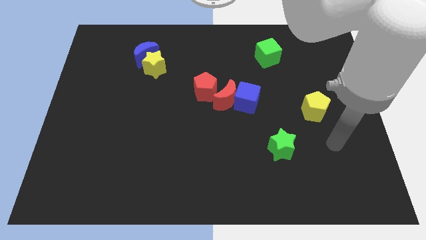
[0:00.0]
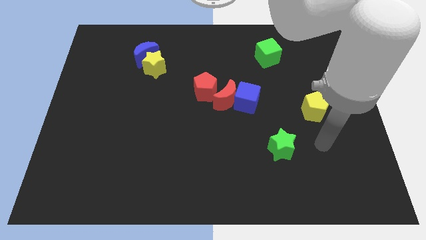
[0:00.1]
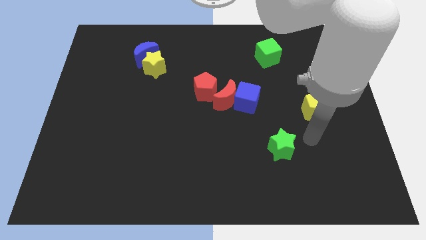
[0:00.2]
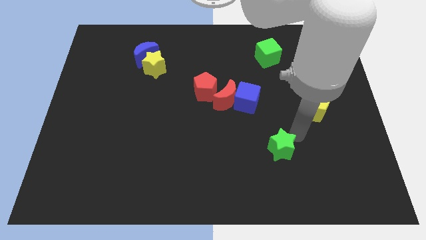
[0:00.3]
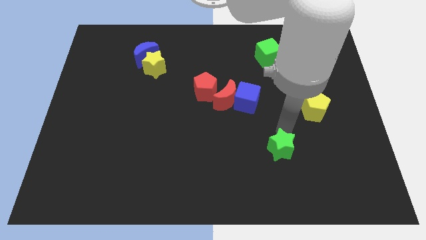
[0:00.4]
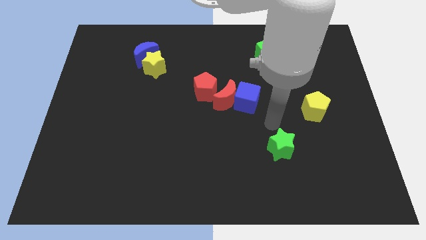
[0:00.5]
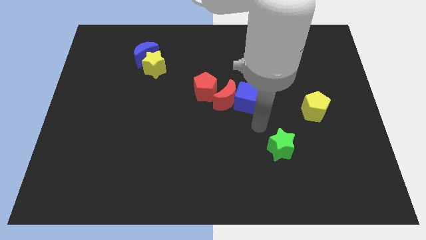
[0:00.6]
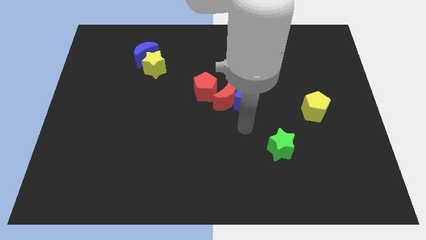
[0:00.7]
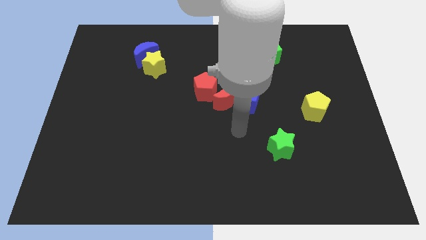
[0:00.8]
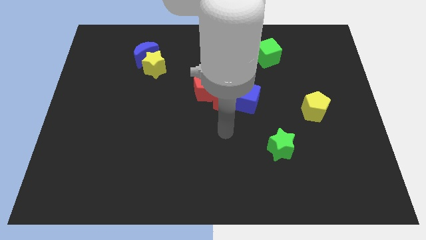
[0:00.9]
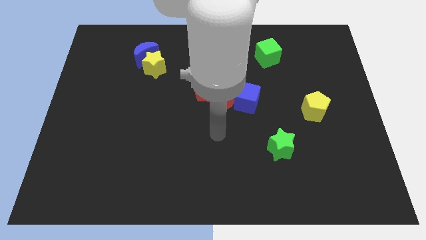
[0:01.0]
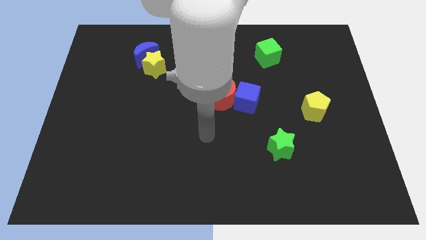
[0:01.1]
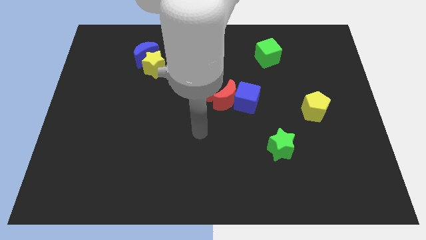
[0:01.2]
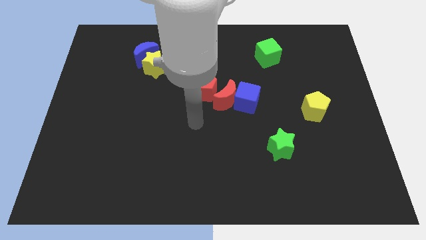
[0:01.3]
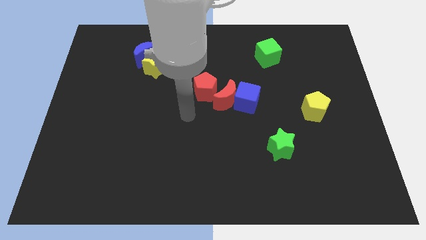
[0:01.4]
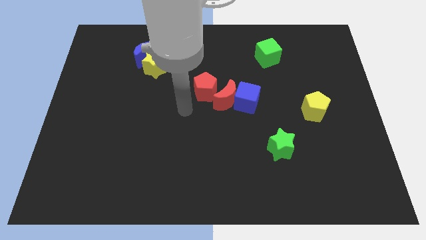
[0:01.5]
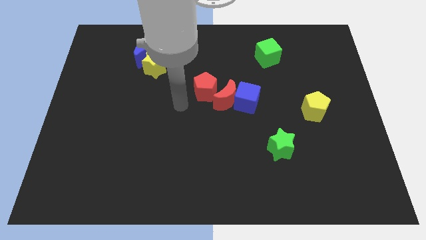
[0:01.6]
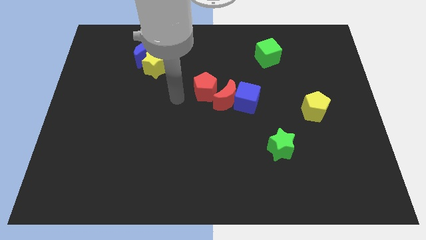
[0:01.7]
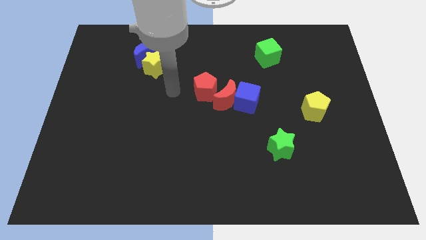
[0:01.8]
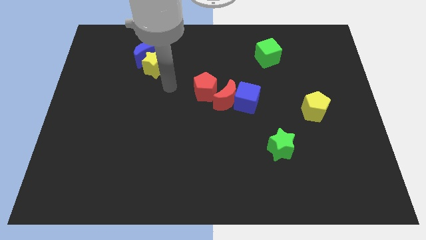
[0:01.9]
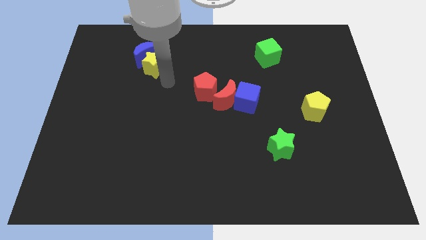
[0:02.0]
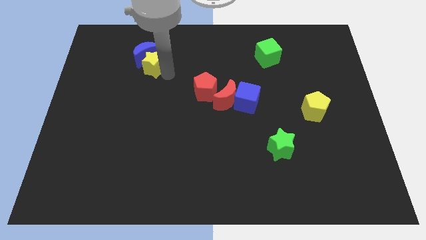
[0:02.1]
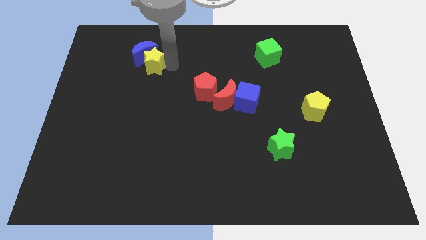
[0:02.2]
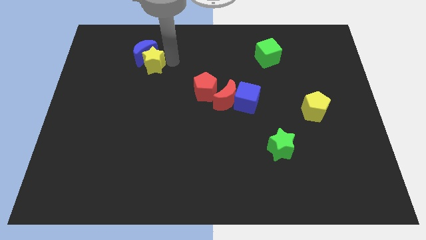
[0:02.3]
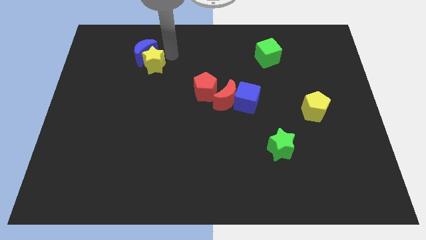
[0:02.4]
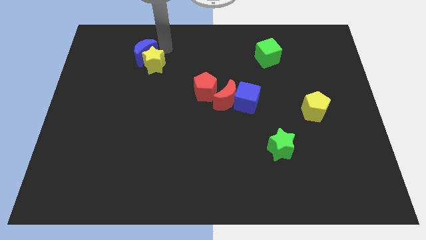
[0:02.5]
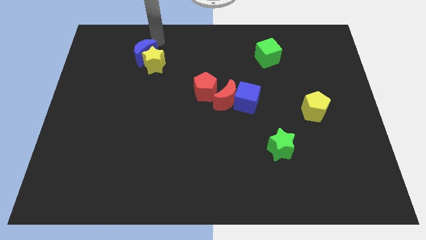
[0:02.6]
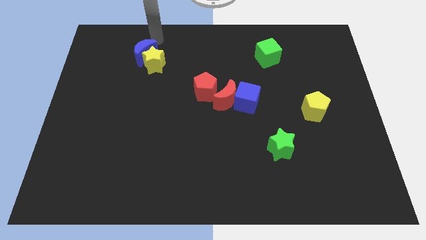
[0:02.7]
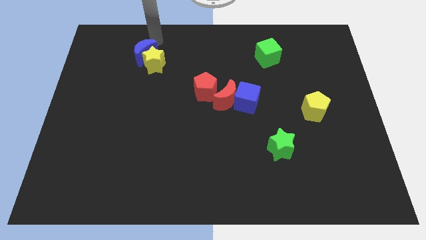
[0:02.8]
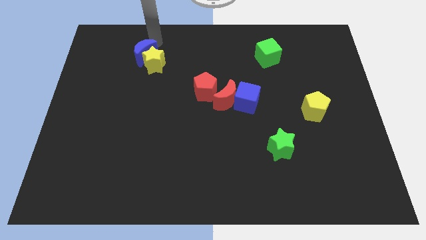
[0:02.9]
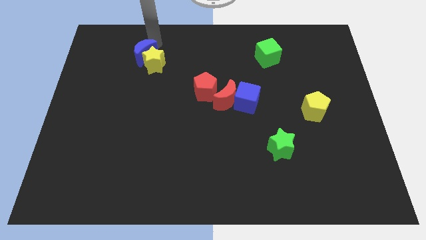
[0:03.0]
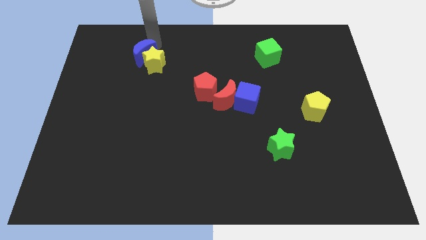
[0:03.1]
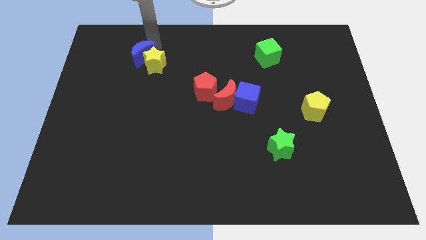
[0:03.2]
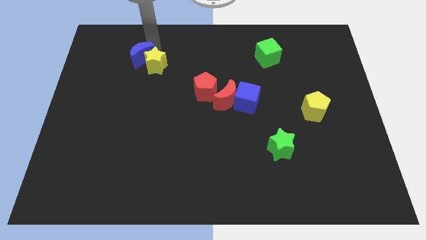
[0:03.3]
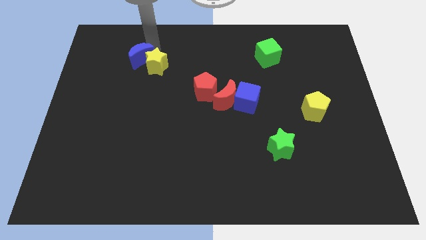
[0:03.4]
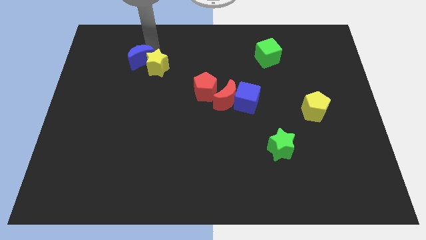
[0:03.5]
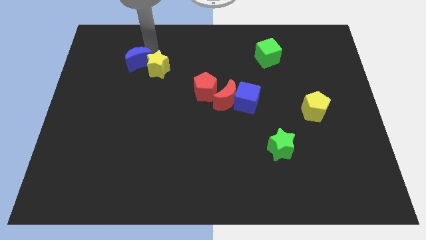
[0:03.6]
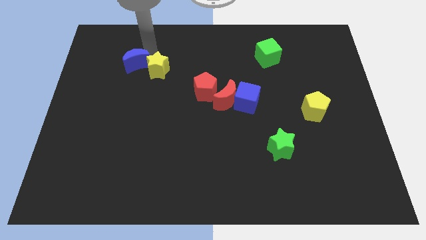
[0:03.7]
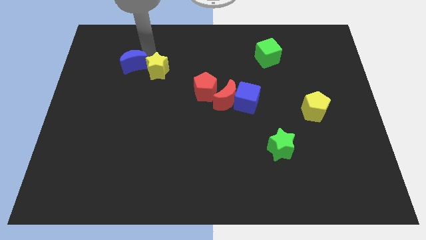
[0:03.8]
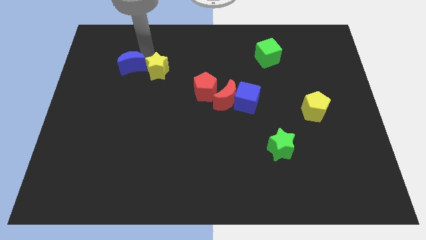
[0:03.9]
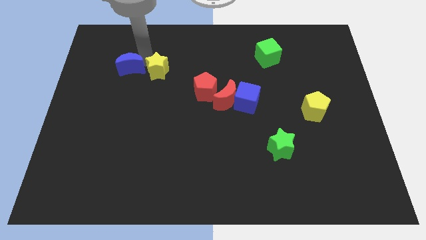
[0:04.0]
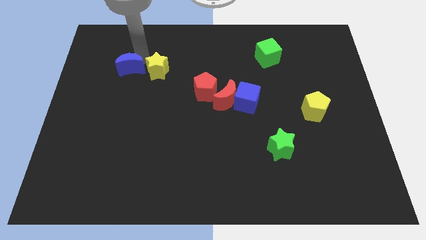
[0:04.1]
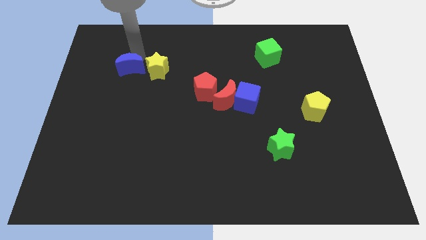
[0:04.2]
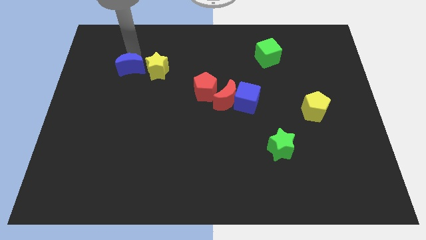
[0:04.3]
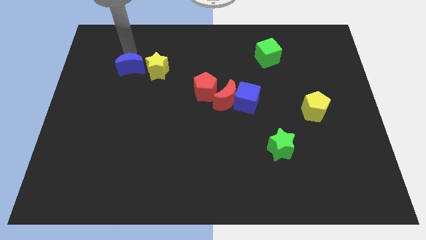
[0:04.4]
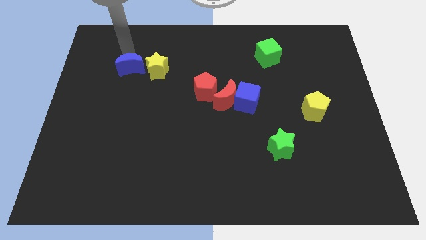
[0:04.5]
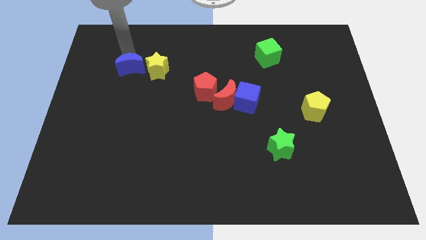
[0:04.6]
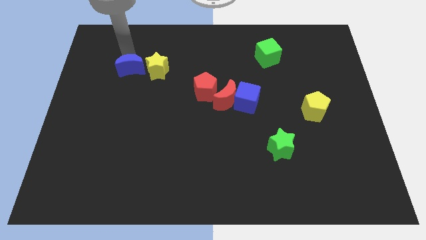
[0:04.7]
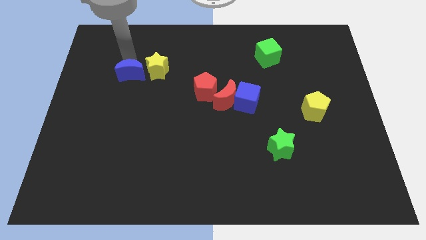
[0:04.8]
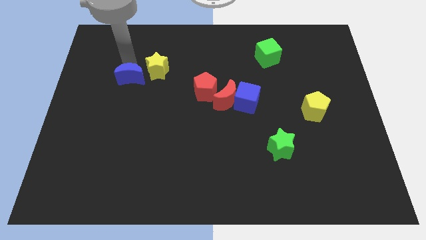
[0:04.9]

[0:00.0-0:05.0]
move the blue moon a little downwards

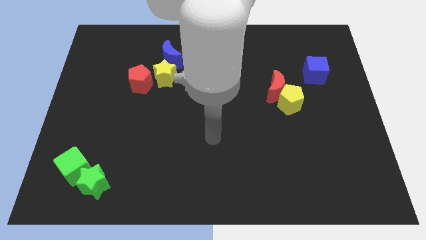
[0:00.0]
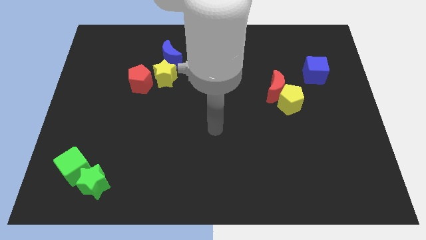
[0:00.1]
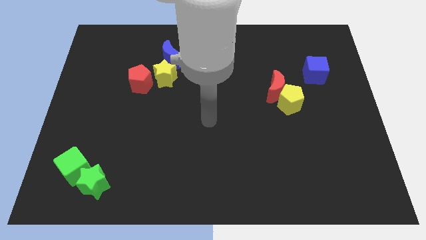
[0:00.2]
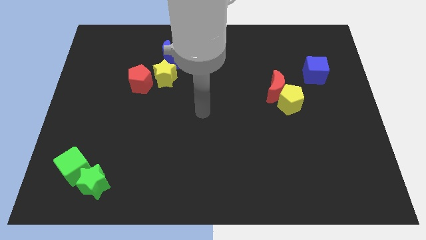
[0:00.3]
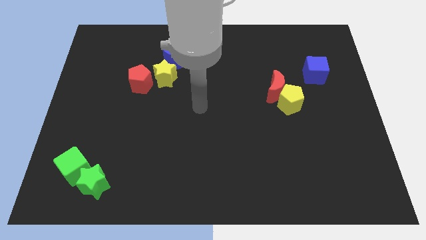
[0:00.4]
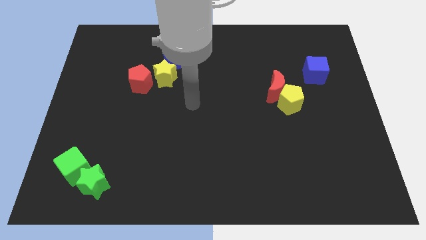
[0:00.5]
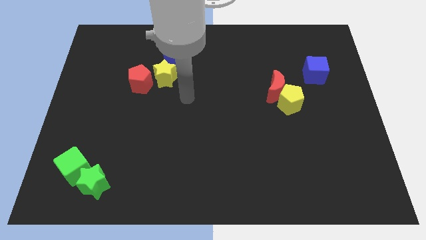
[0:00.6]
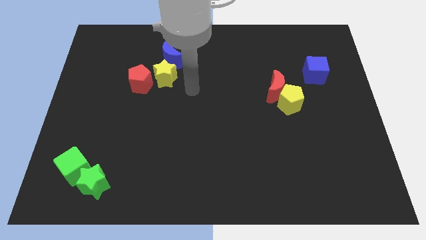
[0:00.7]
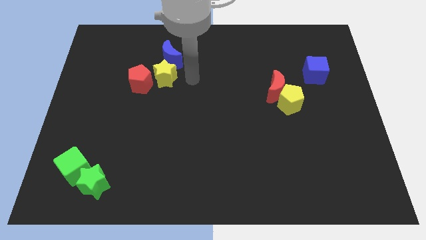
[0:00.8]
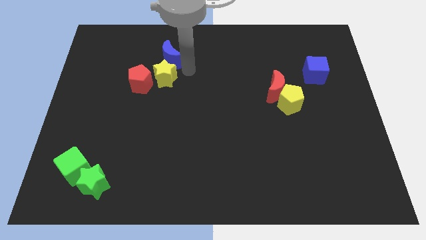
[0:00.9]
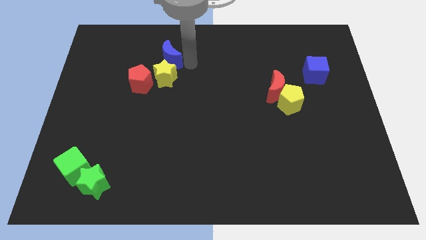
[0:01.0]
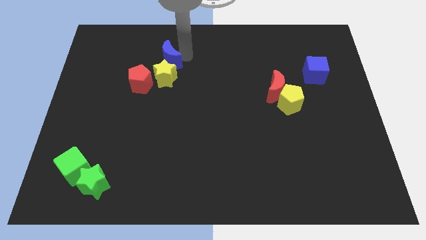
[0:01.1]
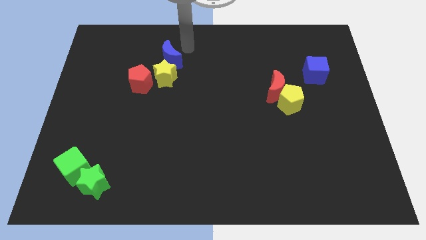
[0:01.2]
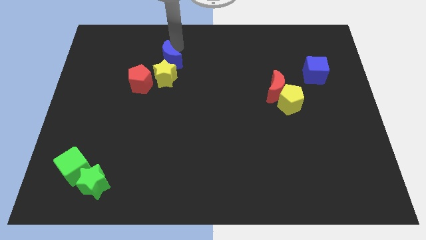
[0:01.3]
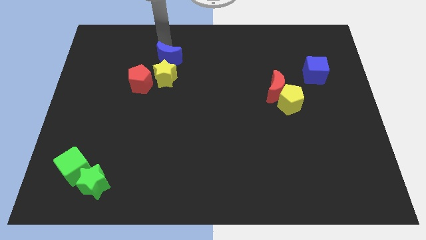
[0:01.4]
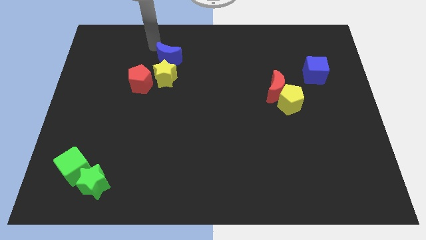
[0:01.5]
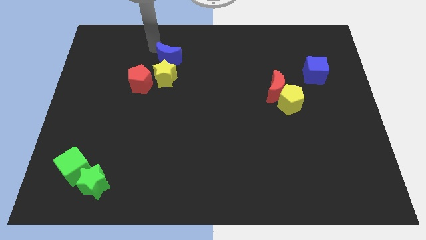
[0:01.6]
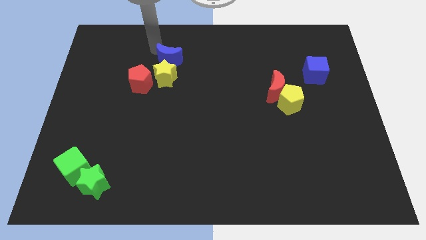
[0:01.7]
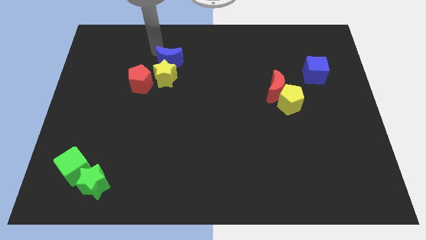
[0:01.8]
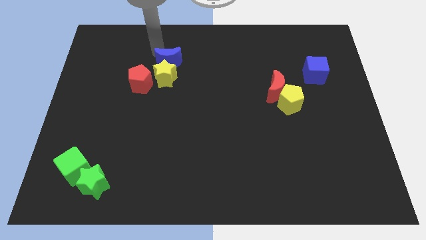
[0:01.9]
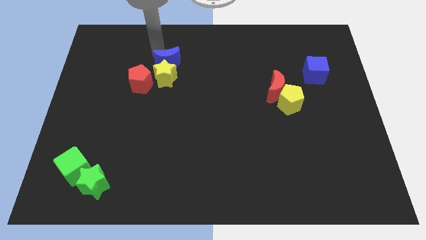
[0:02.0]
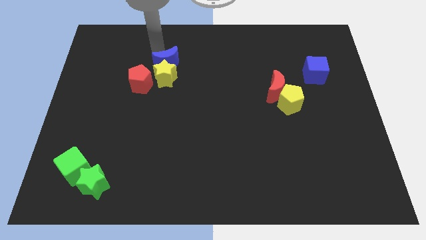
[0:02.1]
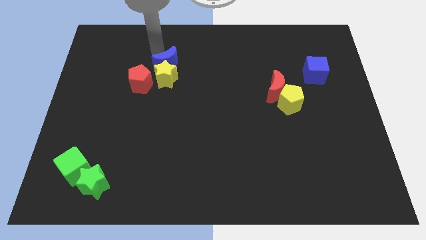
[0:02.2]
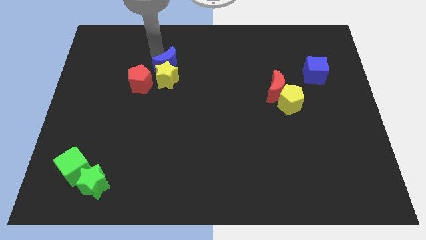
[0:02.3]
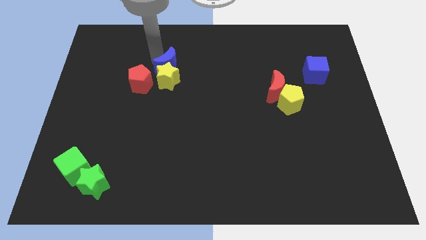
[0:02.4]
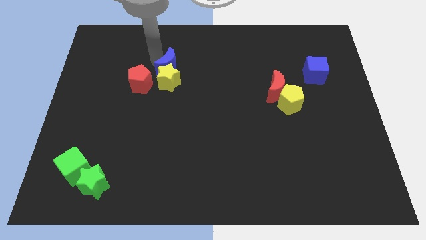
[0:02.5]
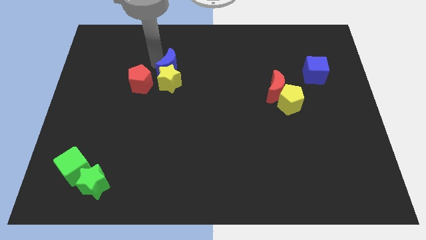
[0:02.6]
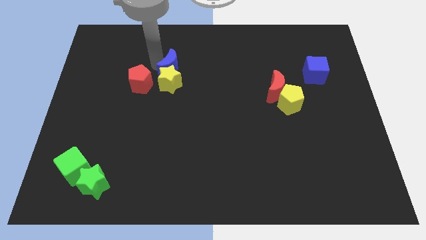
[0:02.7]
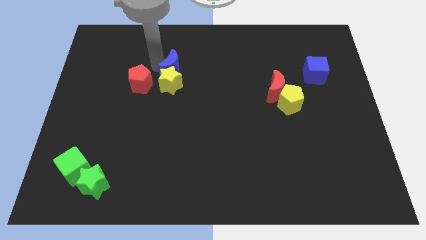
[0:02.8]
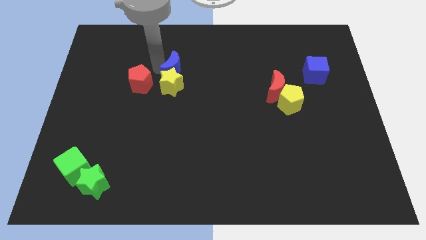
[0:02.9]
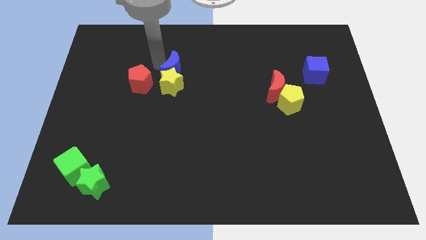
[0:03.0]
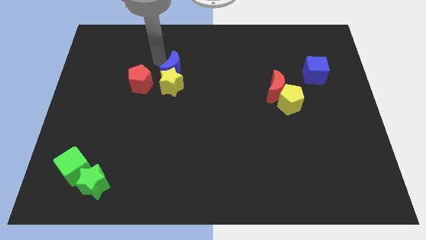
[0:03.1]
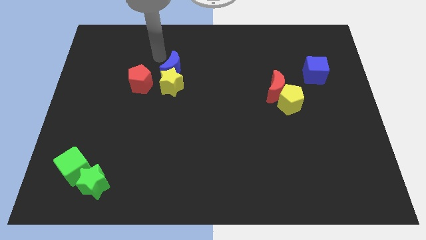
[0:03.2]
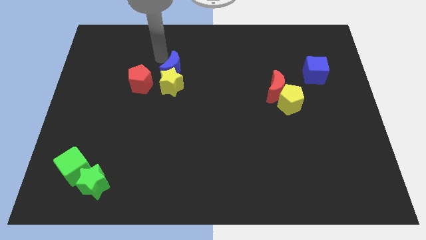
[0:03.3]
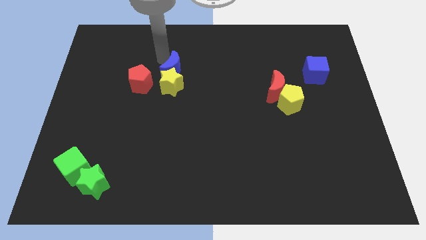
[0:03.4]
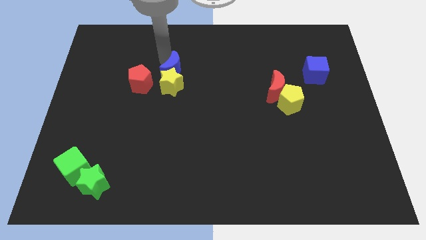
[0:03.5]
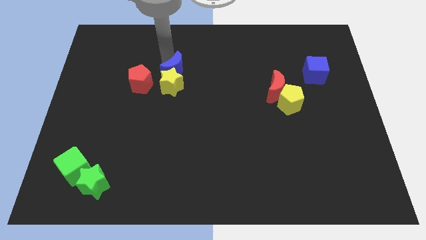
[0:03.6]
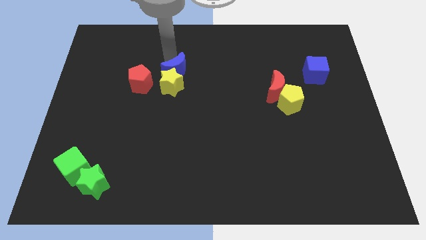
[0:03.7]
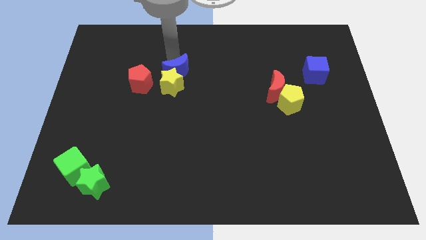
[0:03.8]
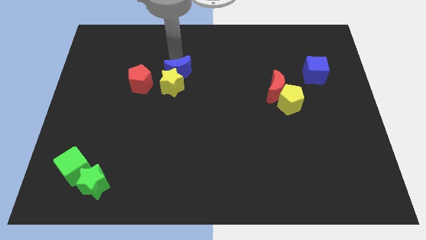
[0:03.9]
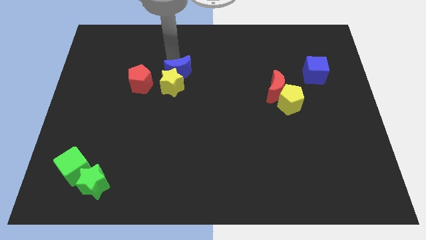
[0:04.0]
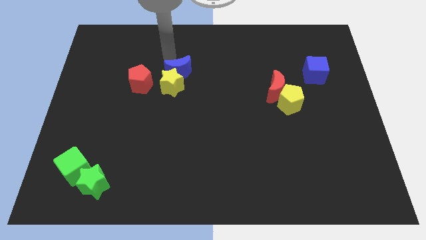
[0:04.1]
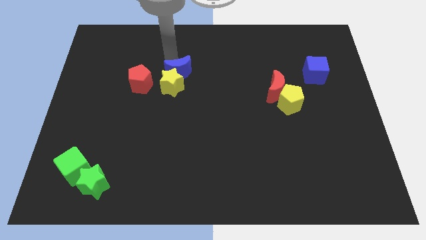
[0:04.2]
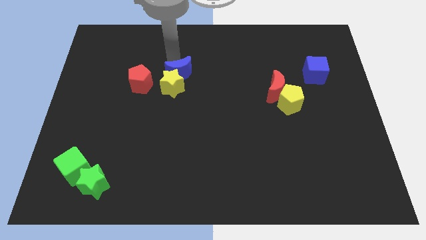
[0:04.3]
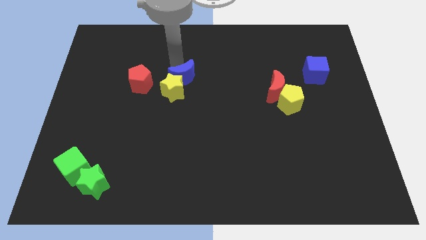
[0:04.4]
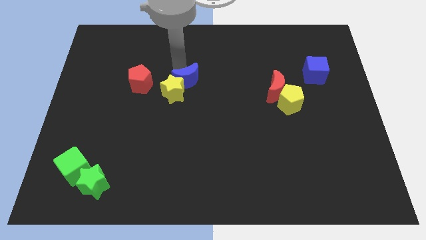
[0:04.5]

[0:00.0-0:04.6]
slightly move the blue moon down
